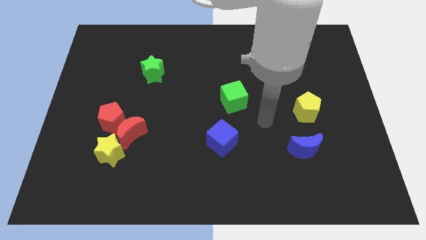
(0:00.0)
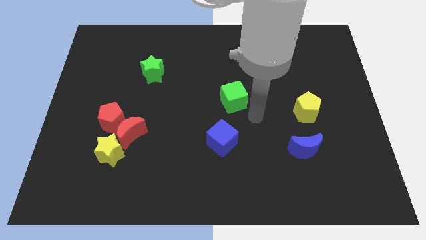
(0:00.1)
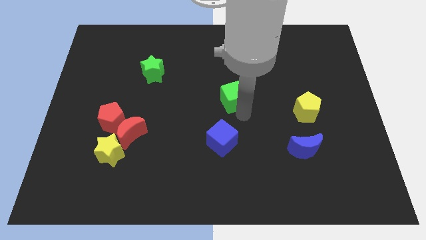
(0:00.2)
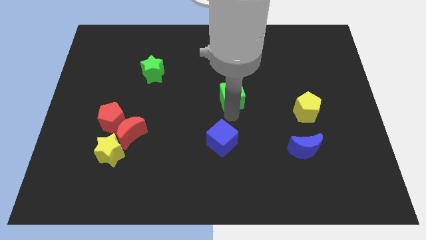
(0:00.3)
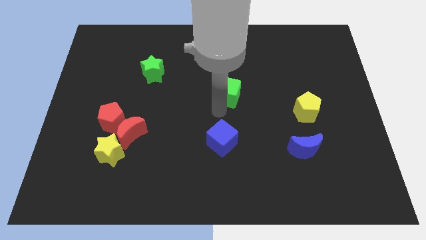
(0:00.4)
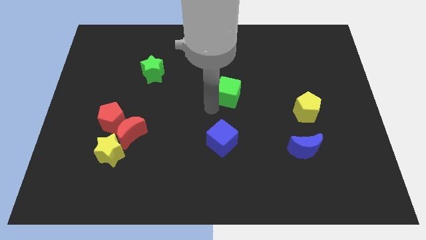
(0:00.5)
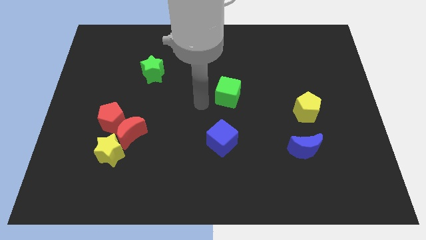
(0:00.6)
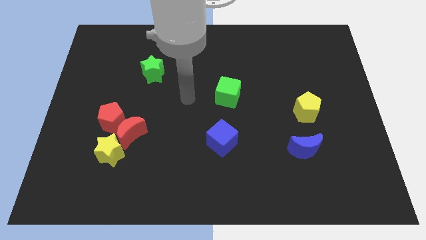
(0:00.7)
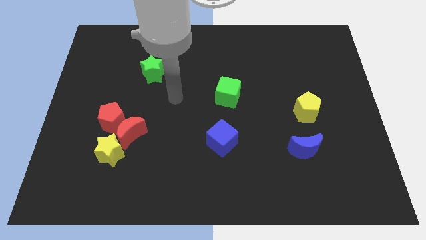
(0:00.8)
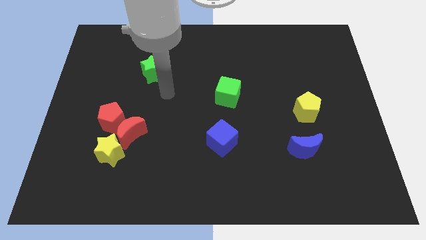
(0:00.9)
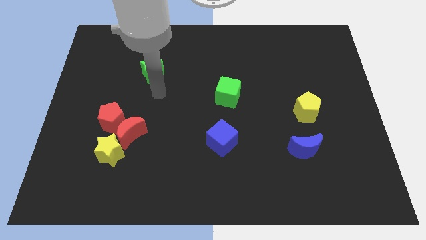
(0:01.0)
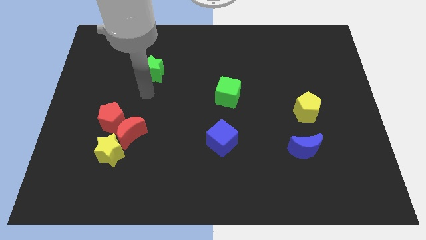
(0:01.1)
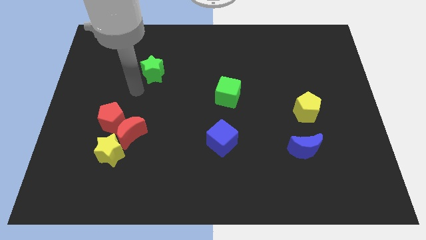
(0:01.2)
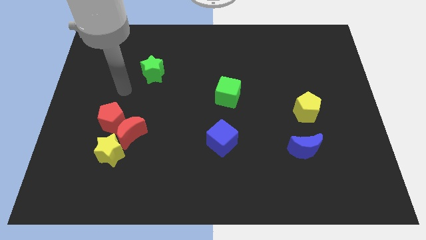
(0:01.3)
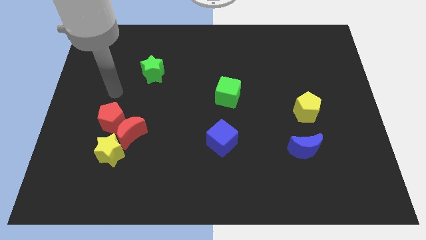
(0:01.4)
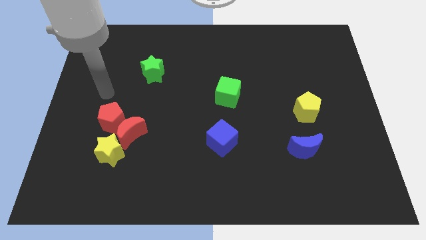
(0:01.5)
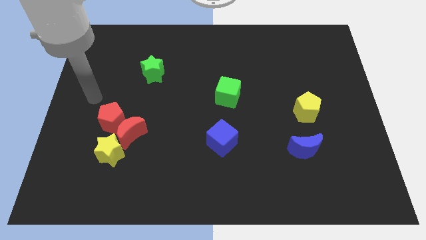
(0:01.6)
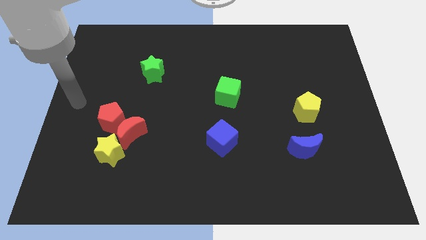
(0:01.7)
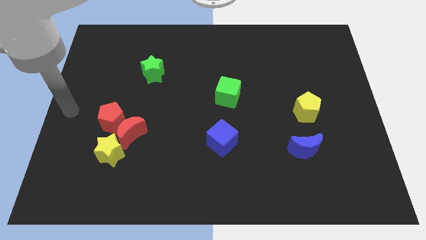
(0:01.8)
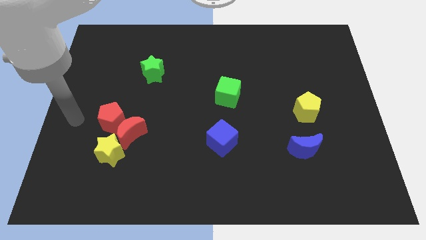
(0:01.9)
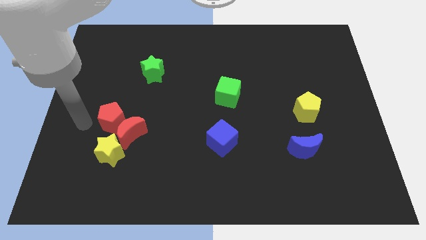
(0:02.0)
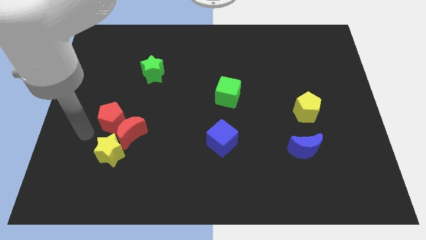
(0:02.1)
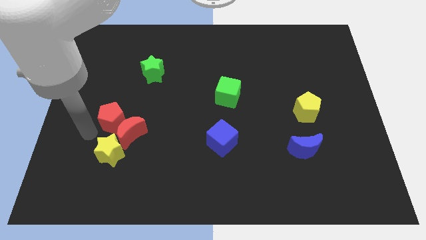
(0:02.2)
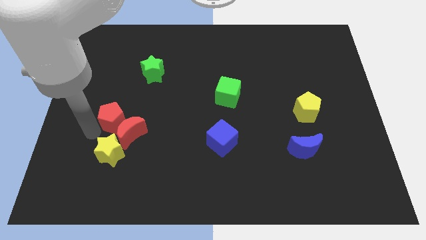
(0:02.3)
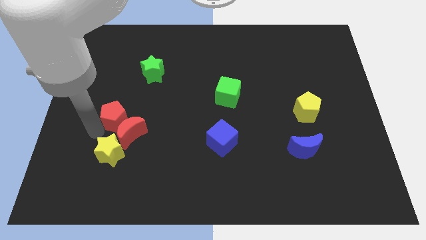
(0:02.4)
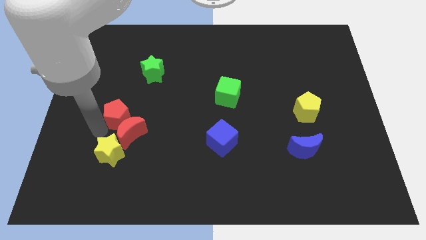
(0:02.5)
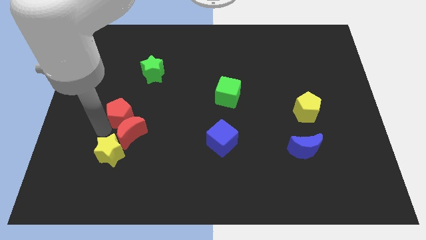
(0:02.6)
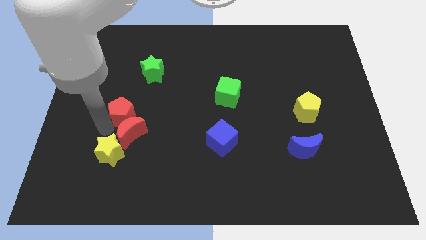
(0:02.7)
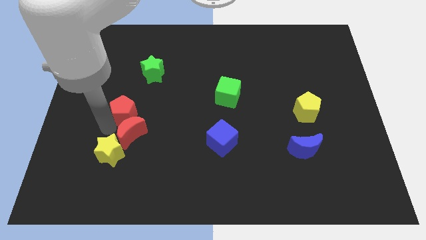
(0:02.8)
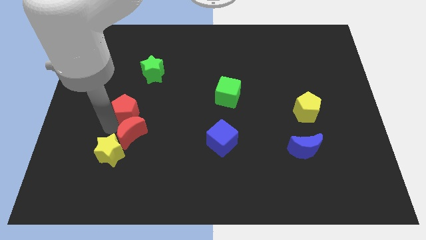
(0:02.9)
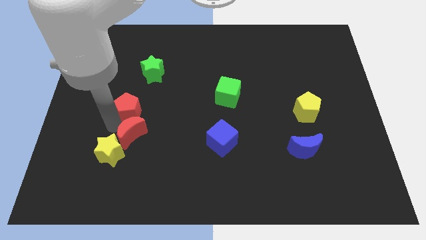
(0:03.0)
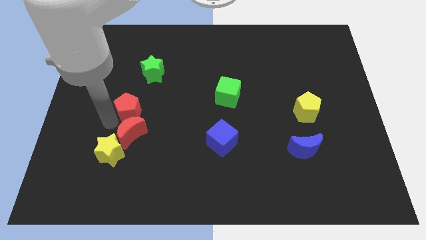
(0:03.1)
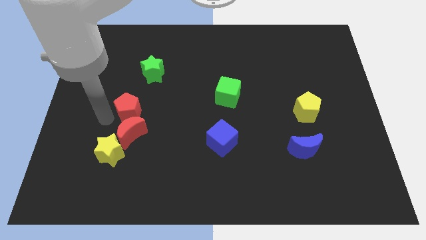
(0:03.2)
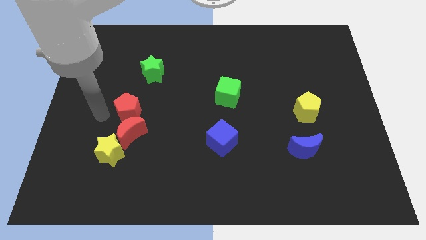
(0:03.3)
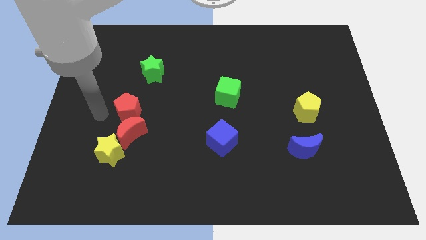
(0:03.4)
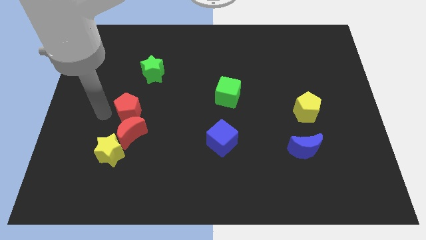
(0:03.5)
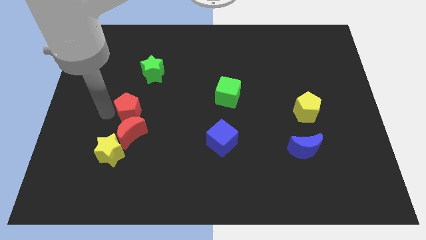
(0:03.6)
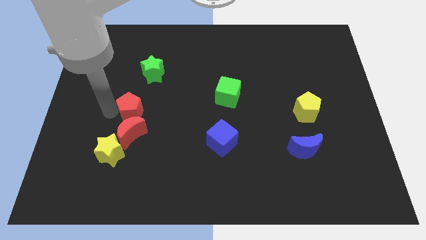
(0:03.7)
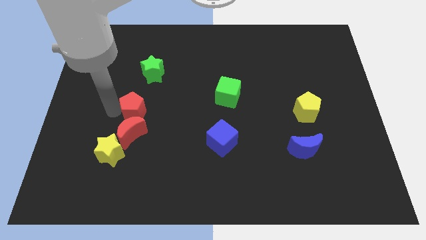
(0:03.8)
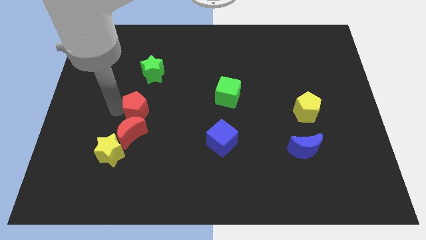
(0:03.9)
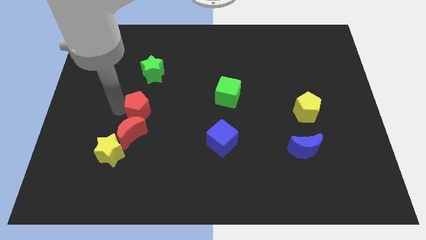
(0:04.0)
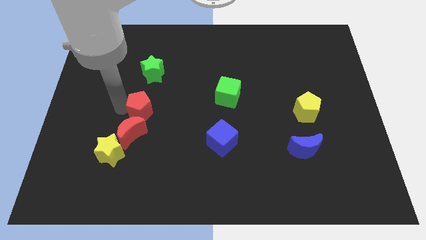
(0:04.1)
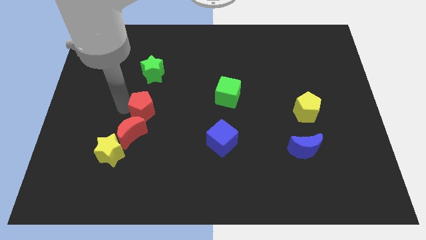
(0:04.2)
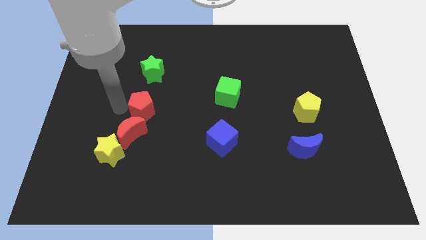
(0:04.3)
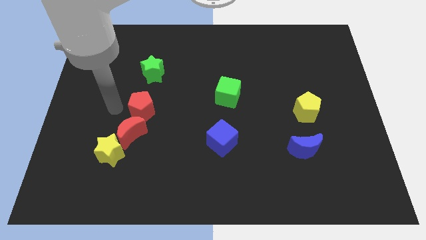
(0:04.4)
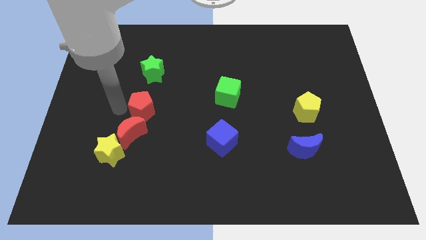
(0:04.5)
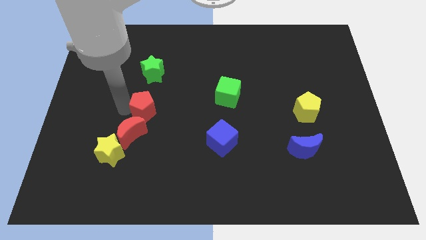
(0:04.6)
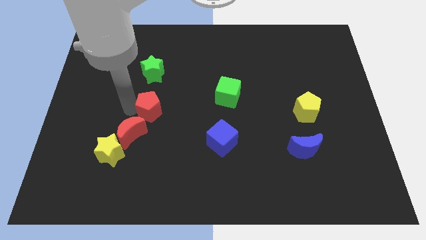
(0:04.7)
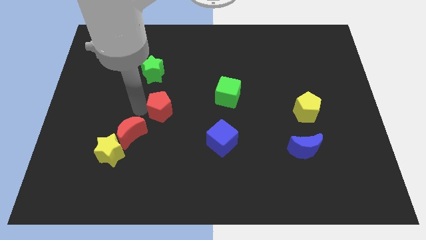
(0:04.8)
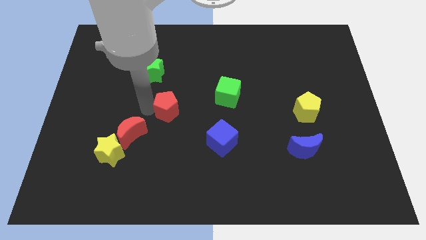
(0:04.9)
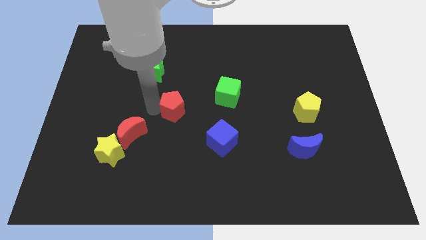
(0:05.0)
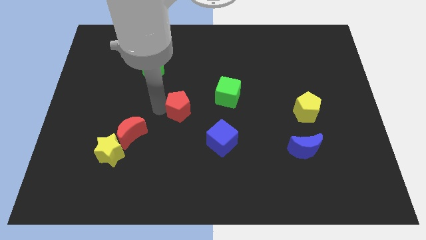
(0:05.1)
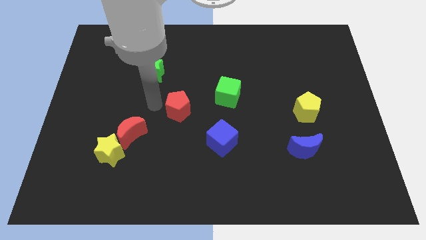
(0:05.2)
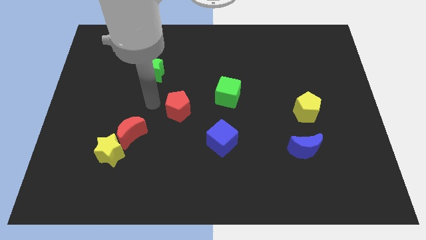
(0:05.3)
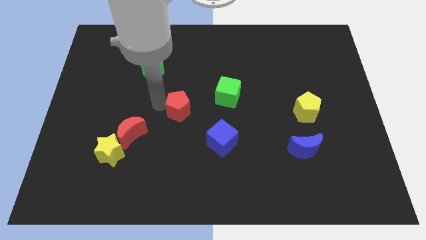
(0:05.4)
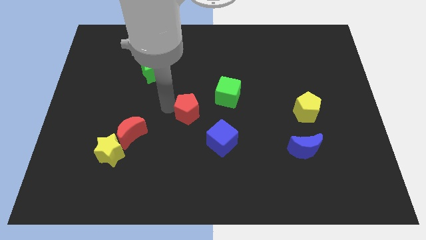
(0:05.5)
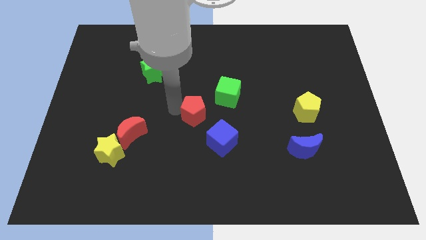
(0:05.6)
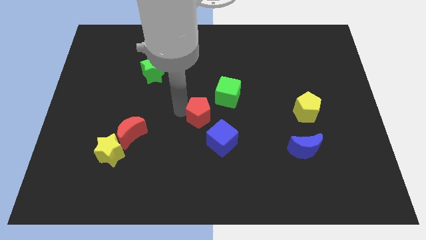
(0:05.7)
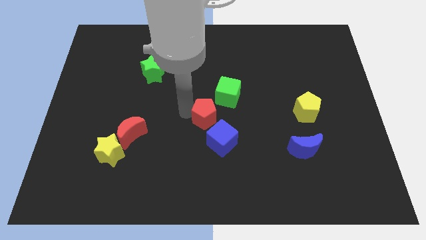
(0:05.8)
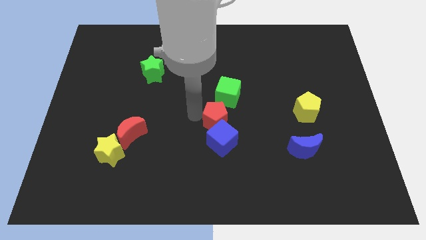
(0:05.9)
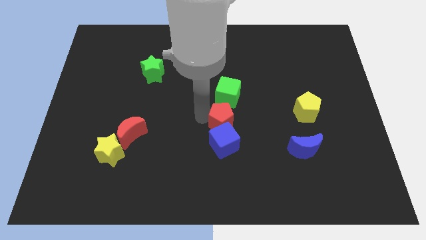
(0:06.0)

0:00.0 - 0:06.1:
put the red pentagon diagonally up and to the right of the blue cube

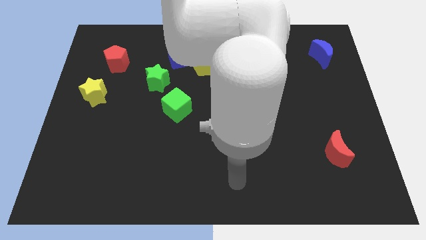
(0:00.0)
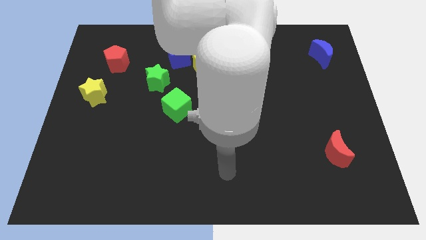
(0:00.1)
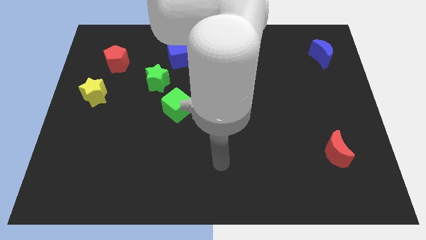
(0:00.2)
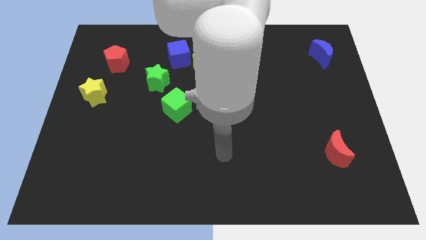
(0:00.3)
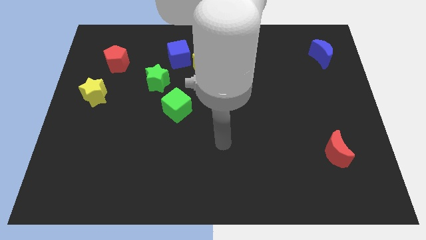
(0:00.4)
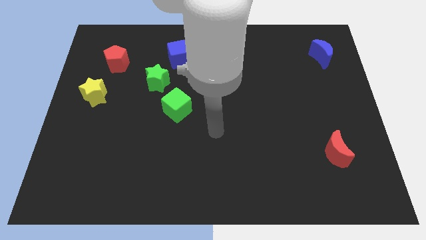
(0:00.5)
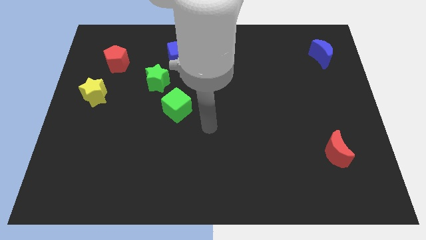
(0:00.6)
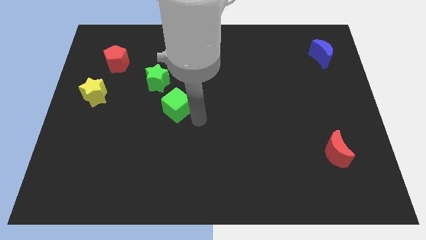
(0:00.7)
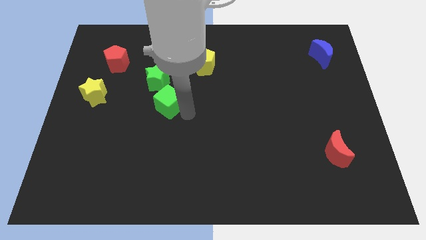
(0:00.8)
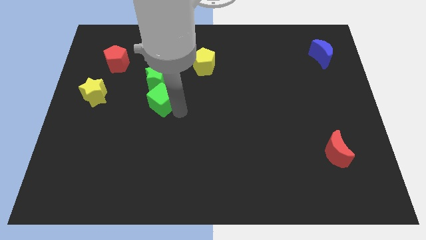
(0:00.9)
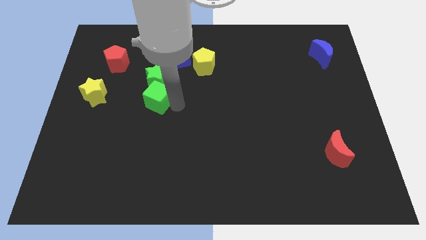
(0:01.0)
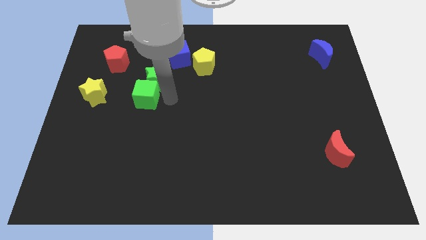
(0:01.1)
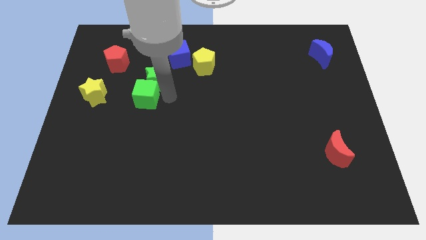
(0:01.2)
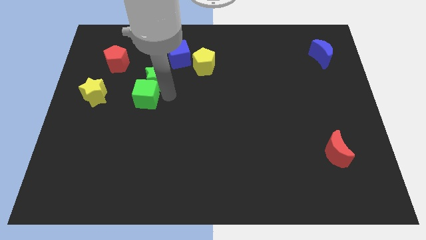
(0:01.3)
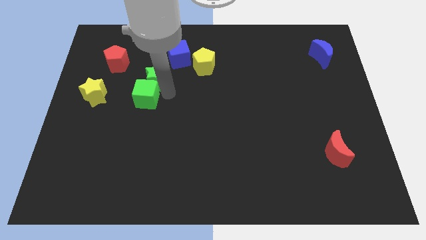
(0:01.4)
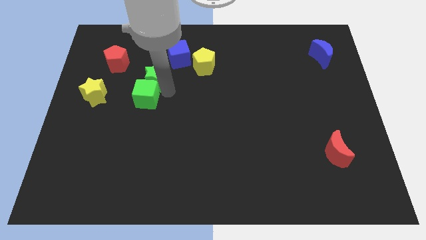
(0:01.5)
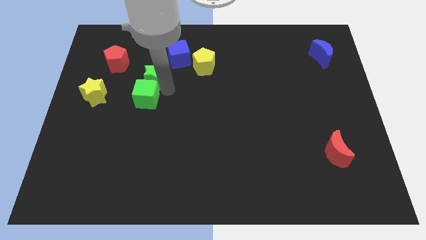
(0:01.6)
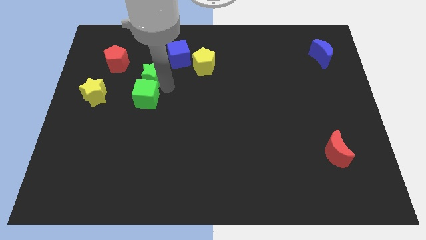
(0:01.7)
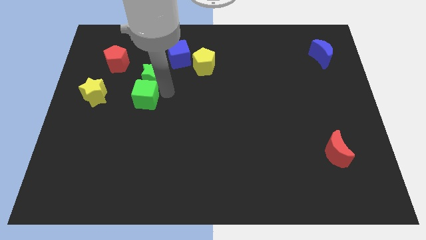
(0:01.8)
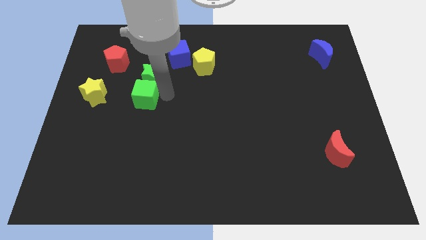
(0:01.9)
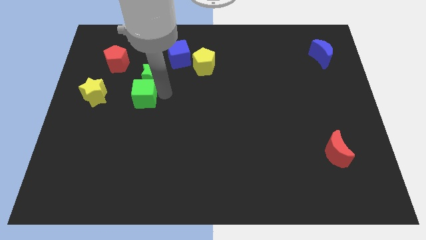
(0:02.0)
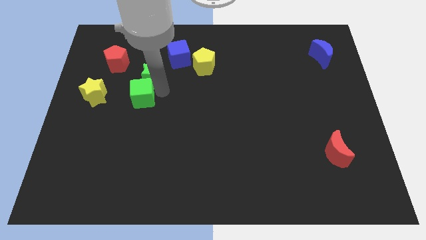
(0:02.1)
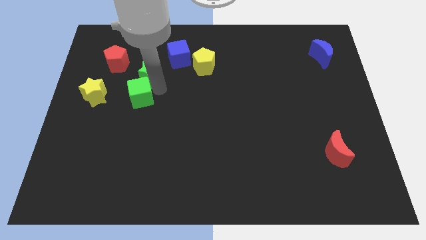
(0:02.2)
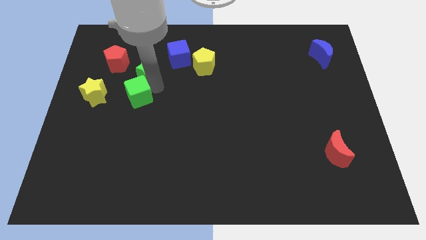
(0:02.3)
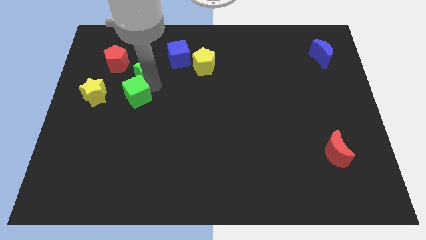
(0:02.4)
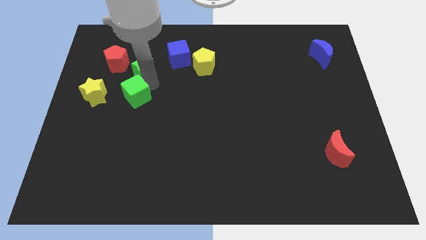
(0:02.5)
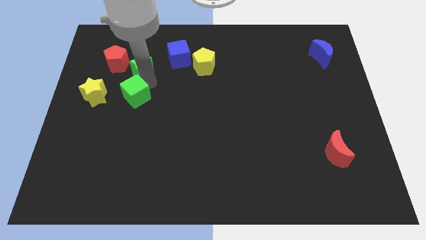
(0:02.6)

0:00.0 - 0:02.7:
slide the green star left of the blue cube
